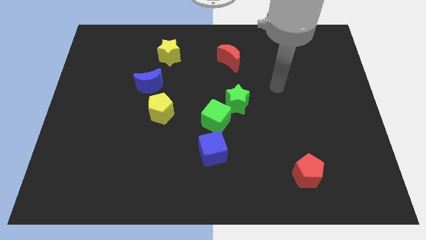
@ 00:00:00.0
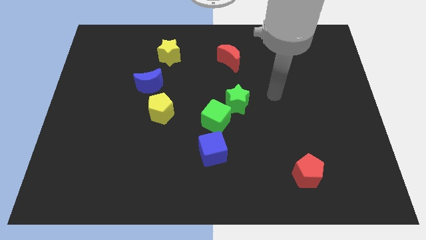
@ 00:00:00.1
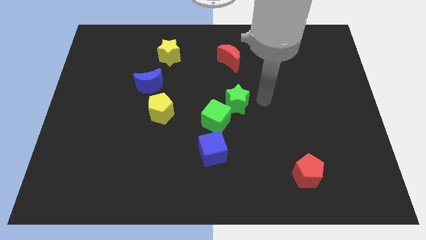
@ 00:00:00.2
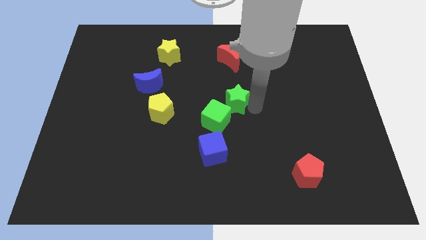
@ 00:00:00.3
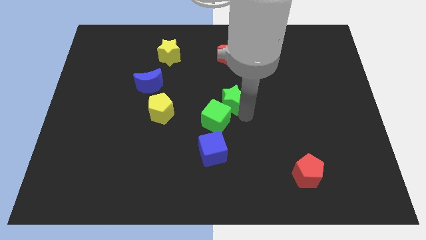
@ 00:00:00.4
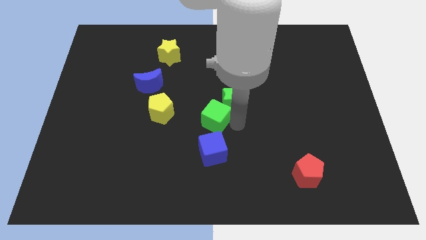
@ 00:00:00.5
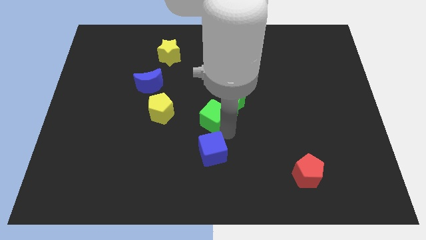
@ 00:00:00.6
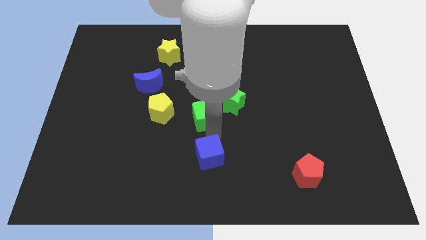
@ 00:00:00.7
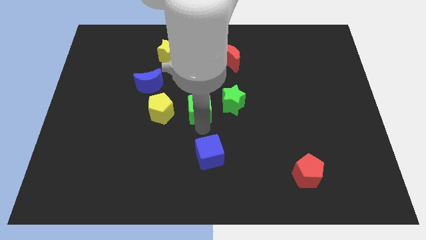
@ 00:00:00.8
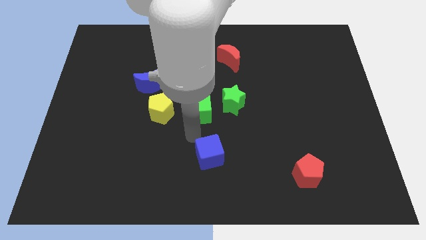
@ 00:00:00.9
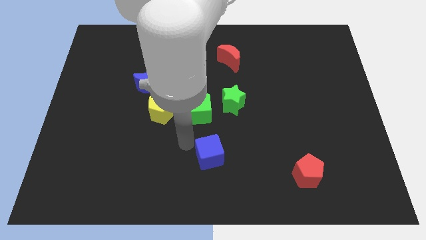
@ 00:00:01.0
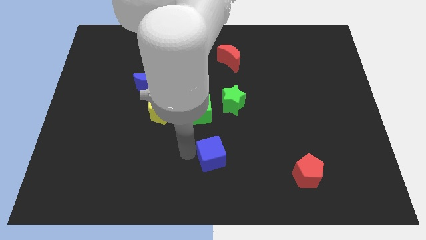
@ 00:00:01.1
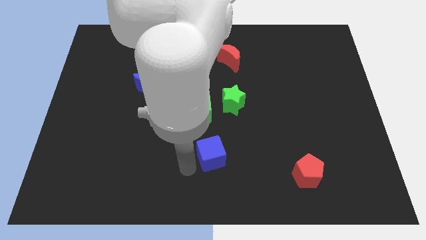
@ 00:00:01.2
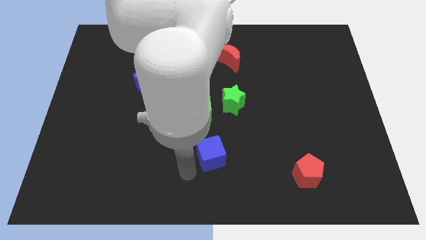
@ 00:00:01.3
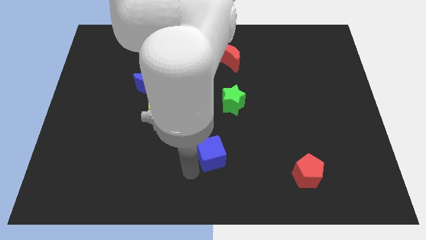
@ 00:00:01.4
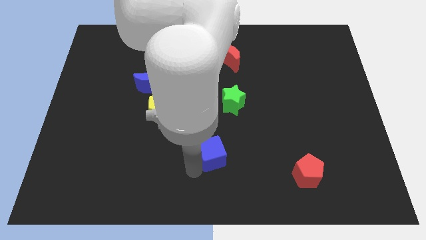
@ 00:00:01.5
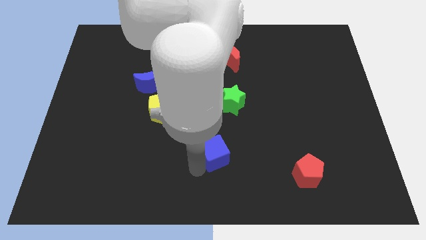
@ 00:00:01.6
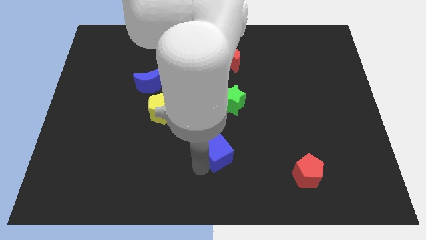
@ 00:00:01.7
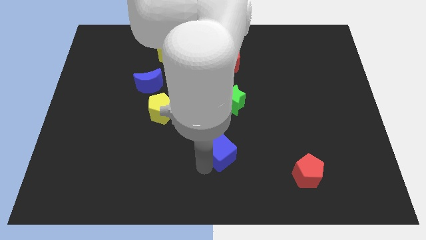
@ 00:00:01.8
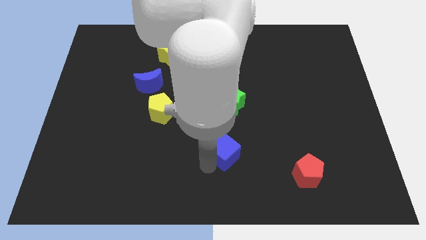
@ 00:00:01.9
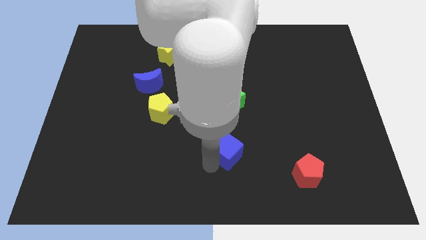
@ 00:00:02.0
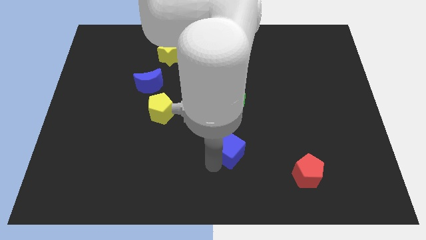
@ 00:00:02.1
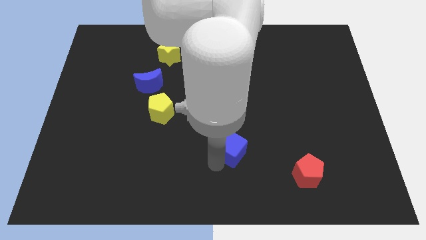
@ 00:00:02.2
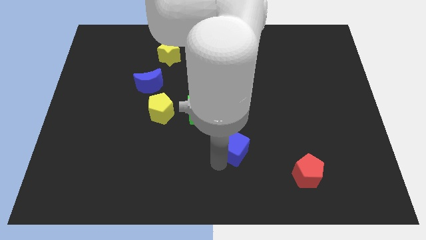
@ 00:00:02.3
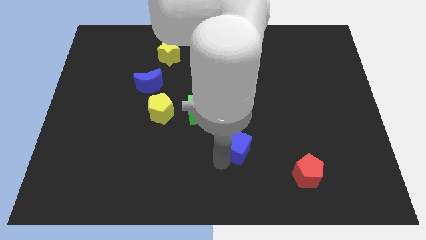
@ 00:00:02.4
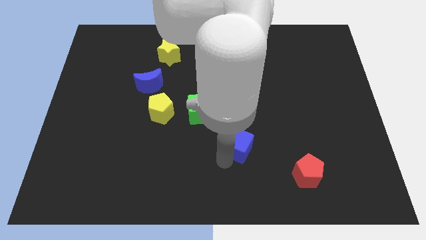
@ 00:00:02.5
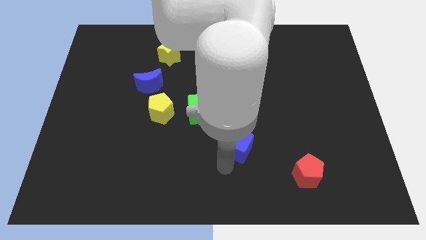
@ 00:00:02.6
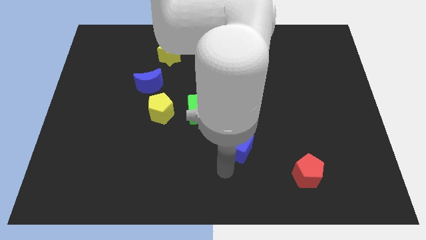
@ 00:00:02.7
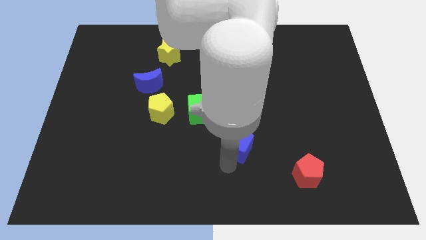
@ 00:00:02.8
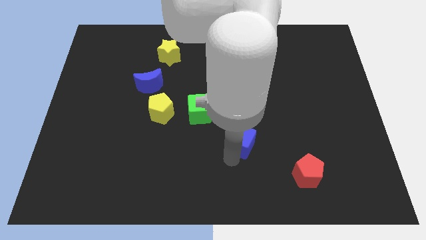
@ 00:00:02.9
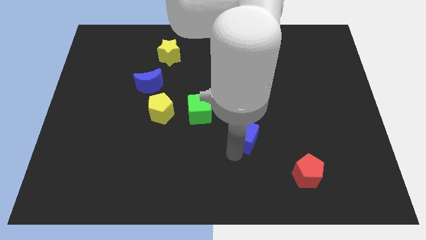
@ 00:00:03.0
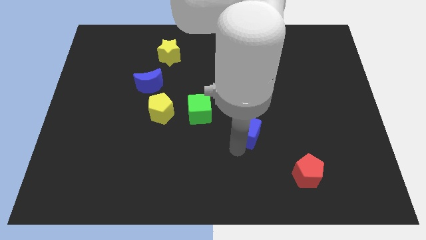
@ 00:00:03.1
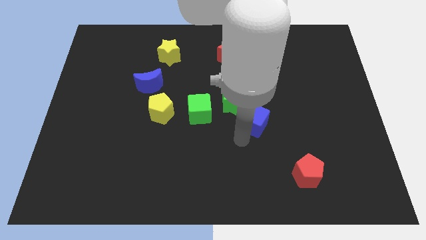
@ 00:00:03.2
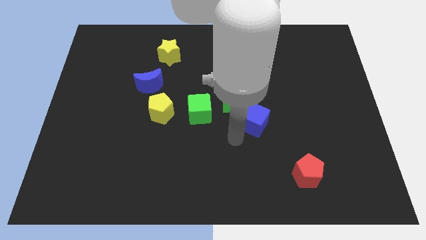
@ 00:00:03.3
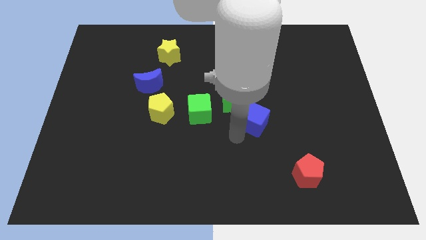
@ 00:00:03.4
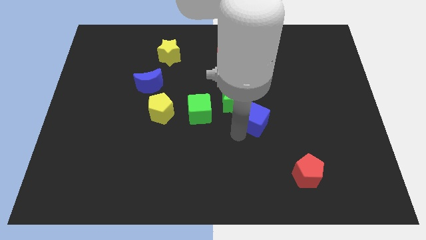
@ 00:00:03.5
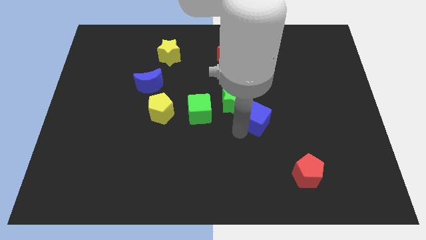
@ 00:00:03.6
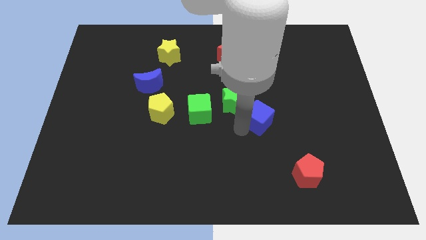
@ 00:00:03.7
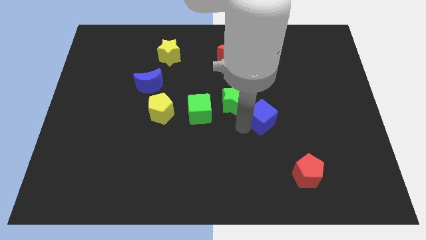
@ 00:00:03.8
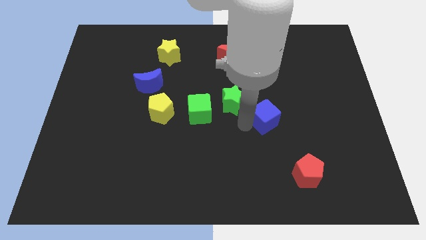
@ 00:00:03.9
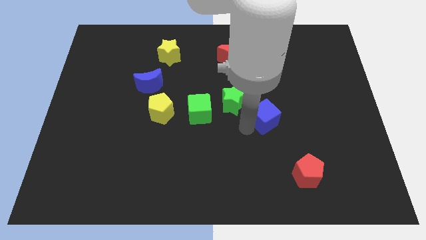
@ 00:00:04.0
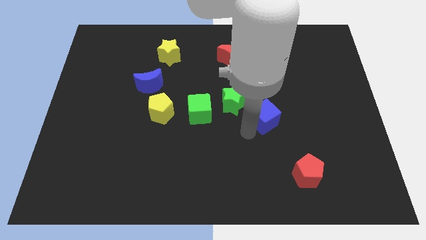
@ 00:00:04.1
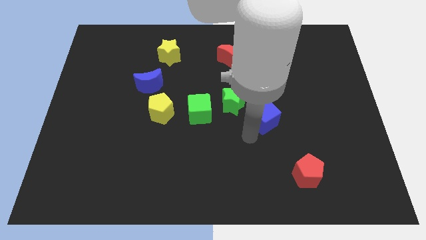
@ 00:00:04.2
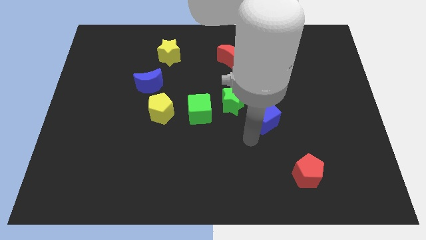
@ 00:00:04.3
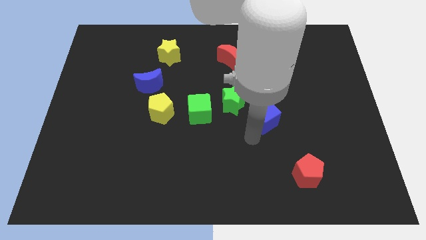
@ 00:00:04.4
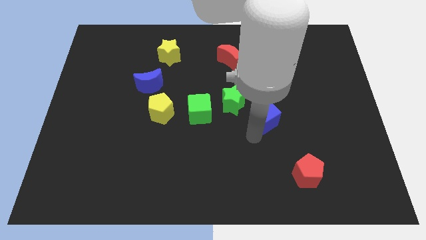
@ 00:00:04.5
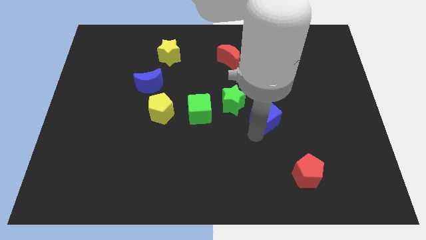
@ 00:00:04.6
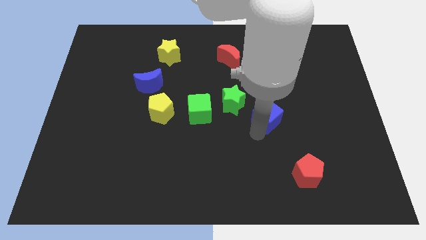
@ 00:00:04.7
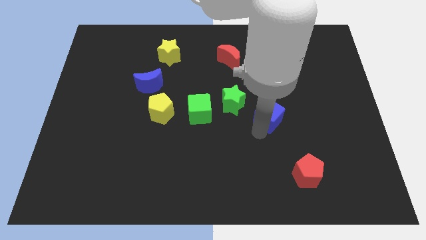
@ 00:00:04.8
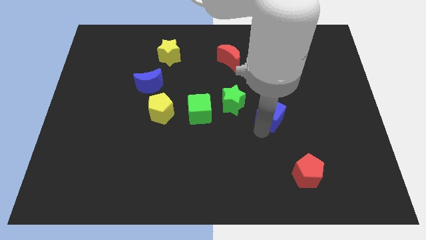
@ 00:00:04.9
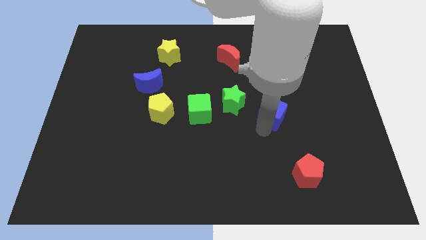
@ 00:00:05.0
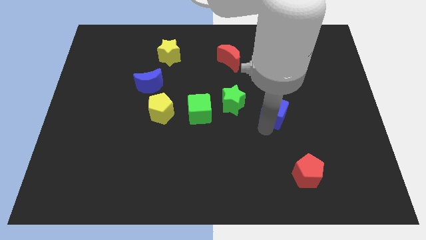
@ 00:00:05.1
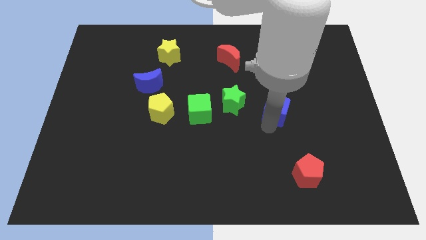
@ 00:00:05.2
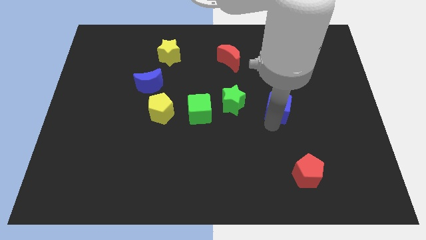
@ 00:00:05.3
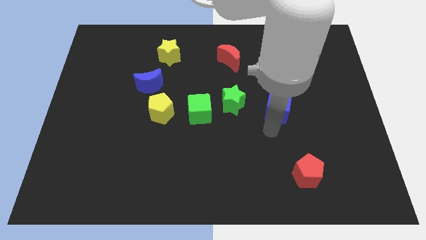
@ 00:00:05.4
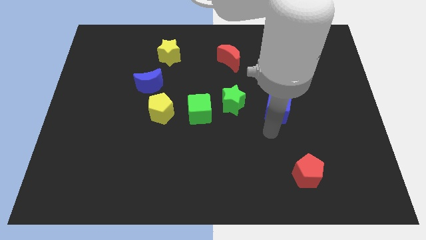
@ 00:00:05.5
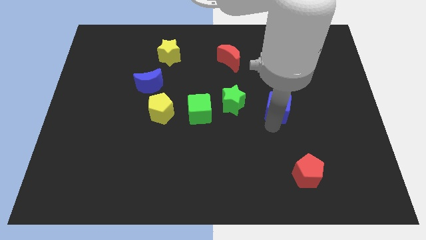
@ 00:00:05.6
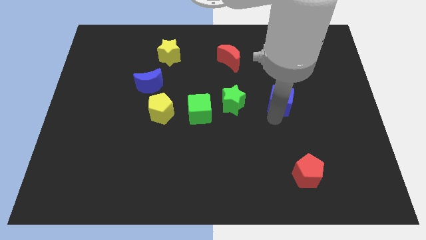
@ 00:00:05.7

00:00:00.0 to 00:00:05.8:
move the blue cube diagonally upwards and to the right

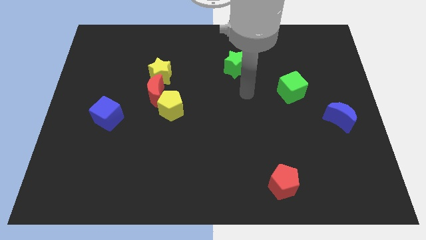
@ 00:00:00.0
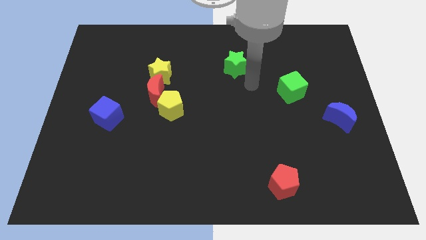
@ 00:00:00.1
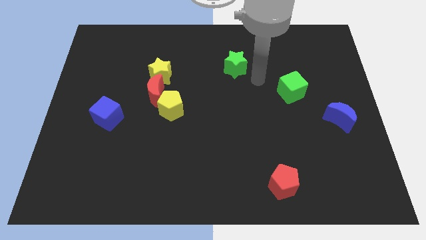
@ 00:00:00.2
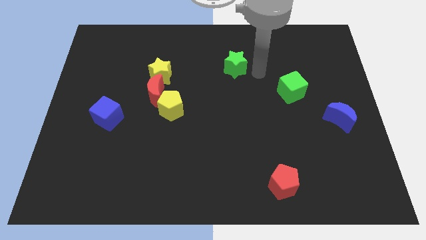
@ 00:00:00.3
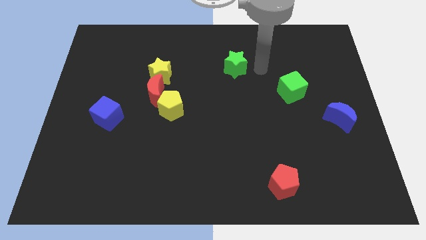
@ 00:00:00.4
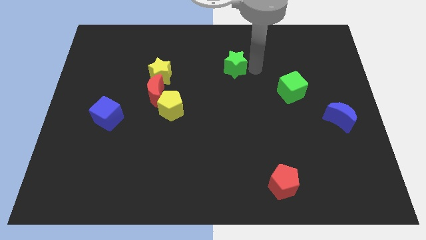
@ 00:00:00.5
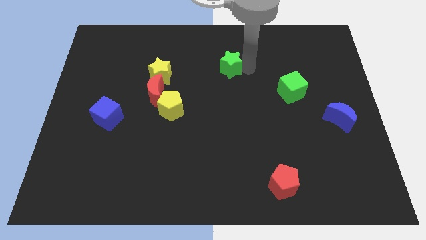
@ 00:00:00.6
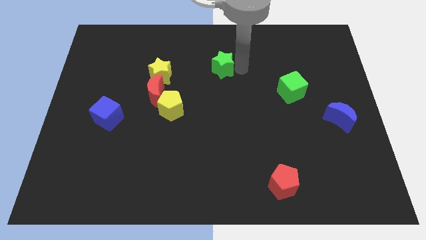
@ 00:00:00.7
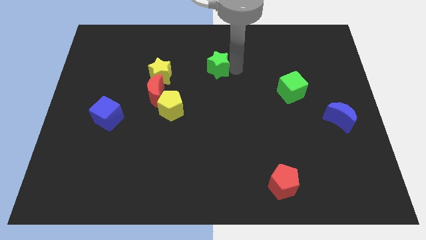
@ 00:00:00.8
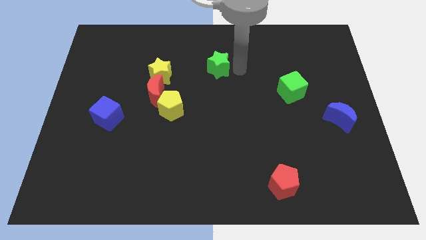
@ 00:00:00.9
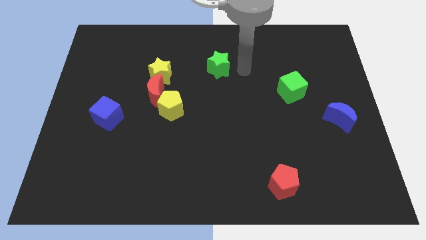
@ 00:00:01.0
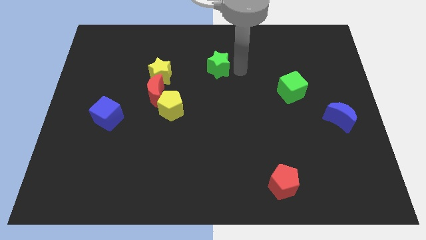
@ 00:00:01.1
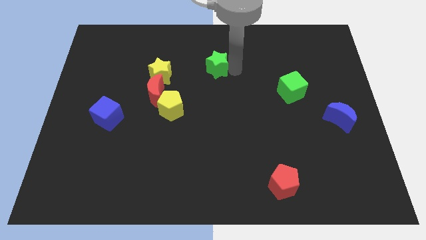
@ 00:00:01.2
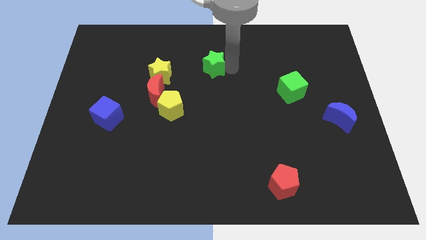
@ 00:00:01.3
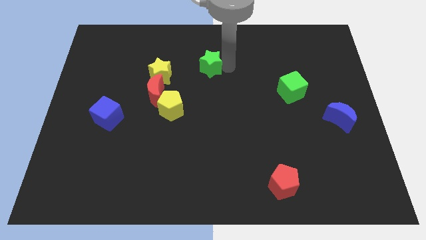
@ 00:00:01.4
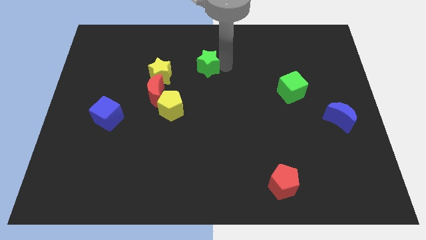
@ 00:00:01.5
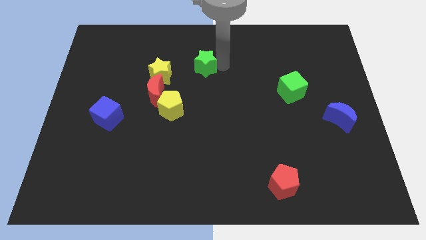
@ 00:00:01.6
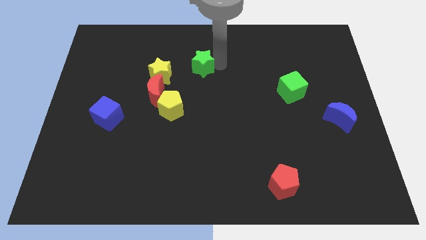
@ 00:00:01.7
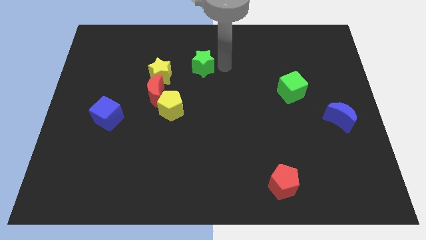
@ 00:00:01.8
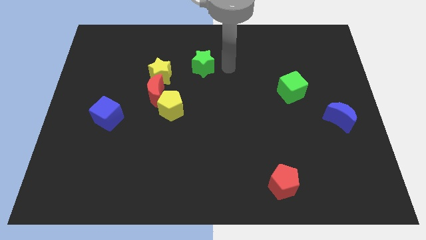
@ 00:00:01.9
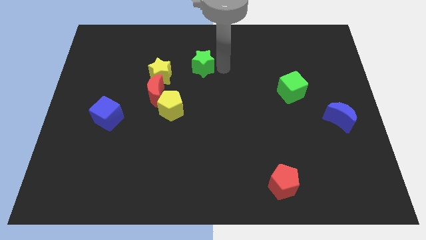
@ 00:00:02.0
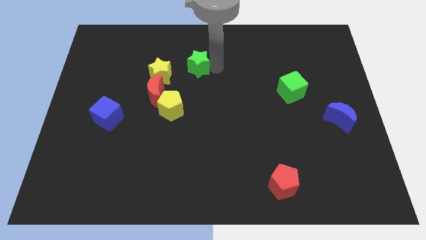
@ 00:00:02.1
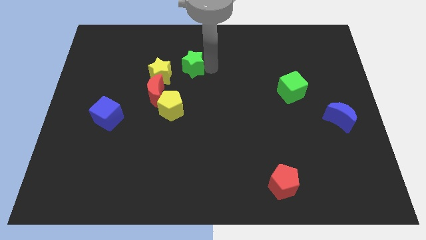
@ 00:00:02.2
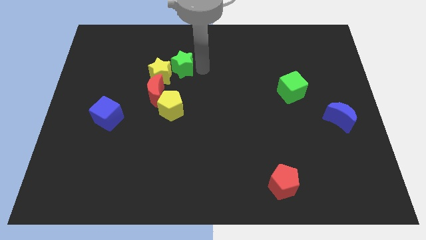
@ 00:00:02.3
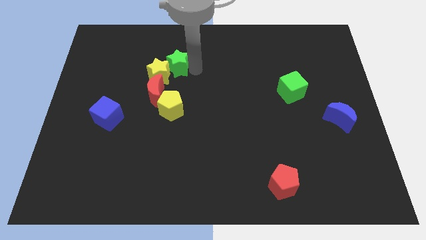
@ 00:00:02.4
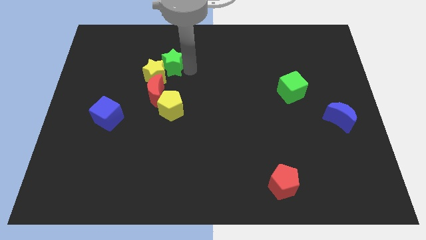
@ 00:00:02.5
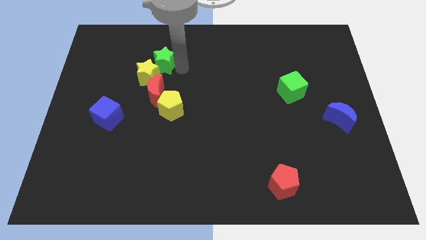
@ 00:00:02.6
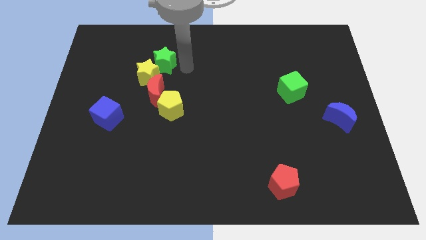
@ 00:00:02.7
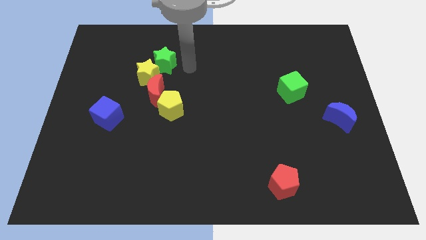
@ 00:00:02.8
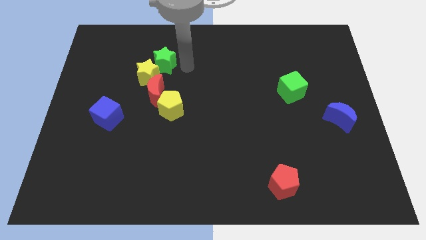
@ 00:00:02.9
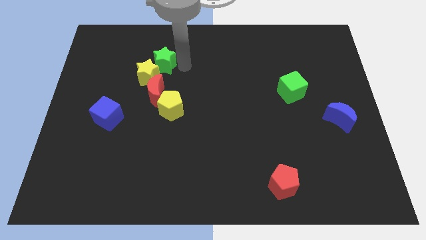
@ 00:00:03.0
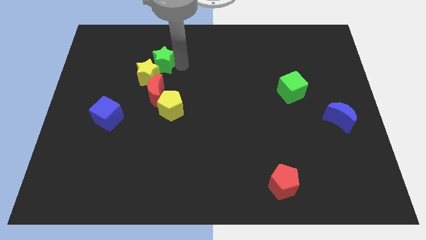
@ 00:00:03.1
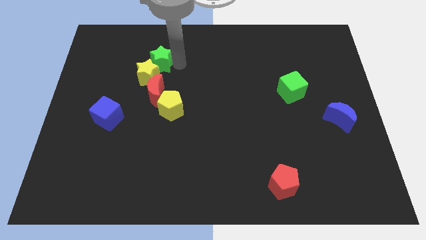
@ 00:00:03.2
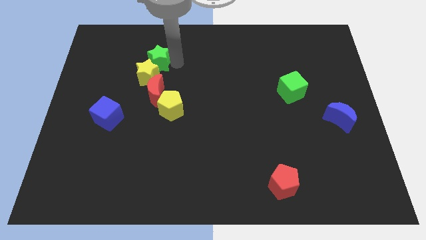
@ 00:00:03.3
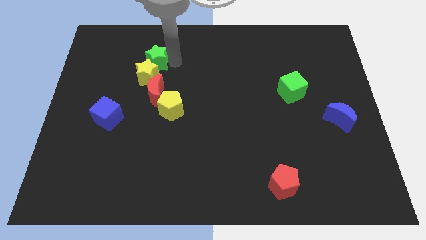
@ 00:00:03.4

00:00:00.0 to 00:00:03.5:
move the green star left
